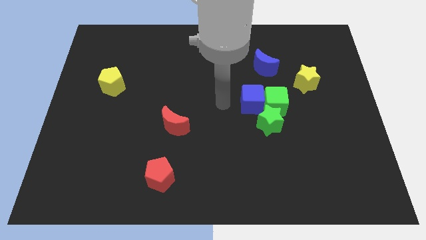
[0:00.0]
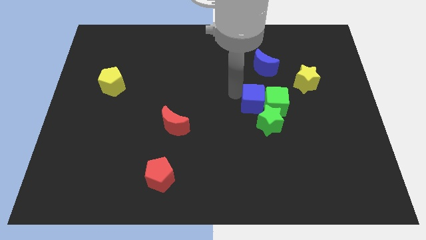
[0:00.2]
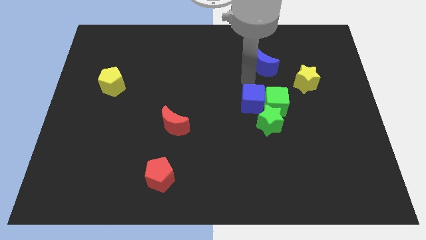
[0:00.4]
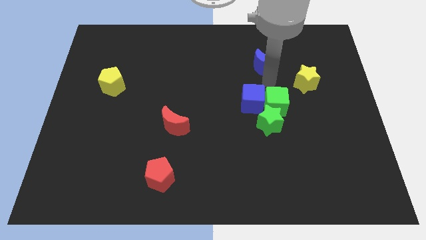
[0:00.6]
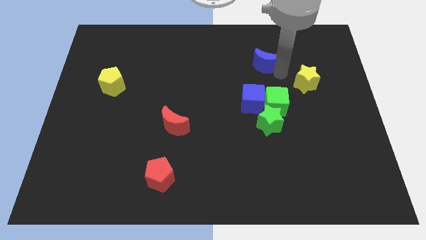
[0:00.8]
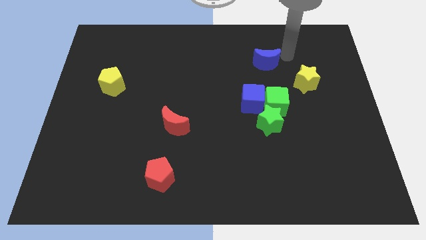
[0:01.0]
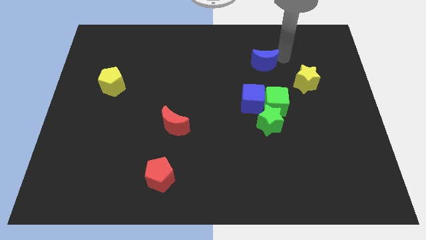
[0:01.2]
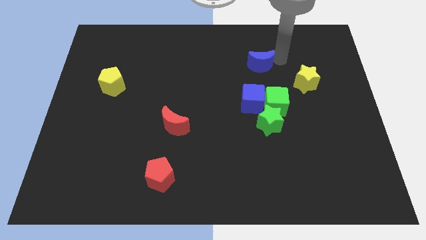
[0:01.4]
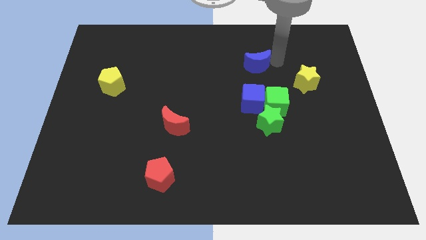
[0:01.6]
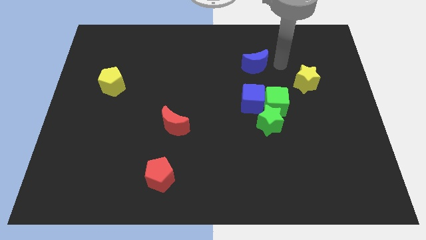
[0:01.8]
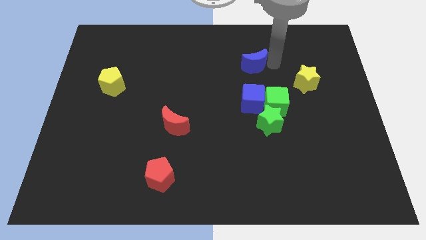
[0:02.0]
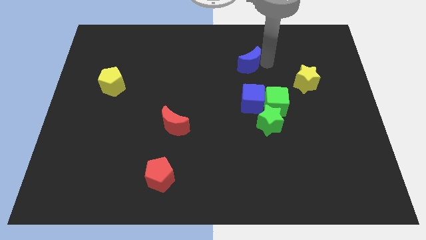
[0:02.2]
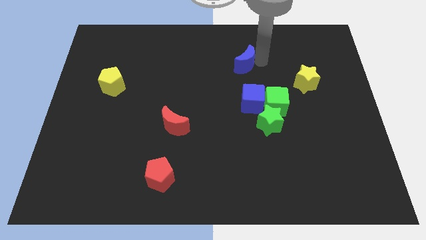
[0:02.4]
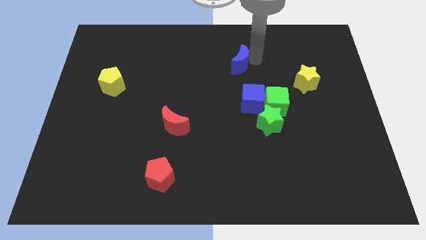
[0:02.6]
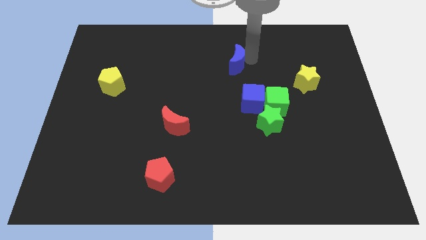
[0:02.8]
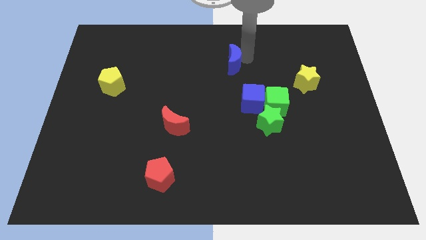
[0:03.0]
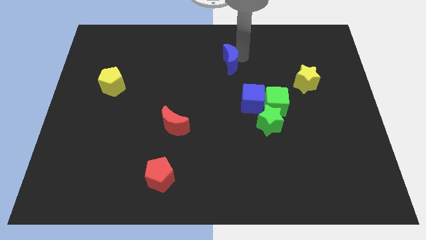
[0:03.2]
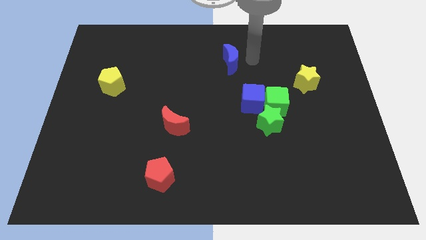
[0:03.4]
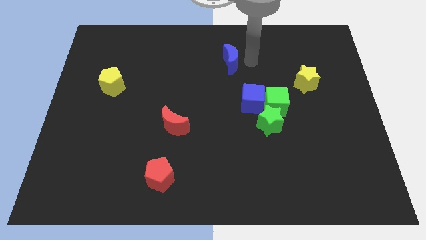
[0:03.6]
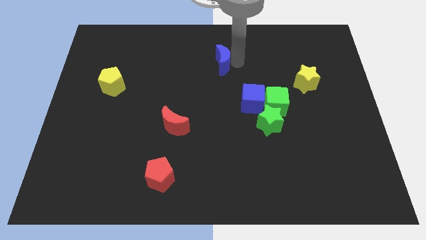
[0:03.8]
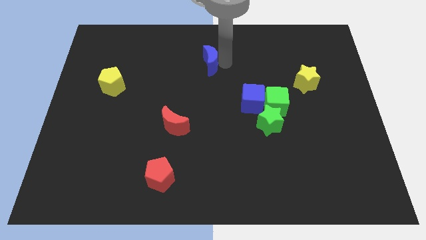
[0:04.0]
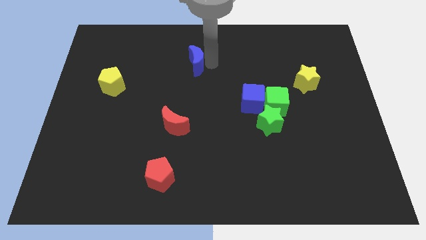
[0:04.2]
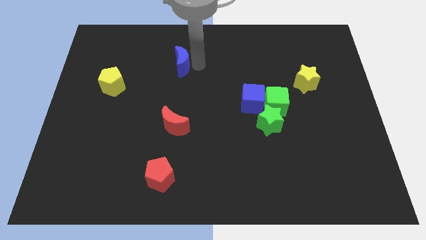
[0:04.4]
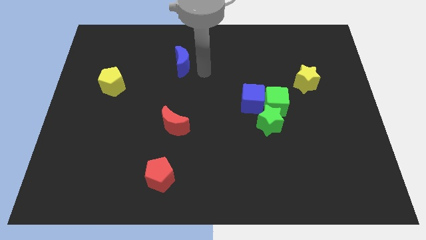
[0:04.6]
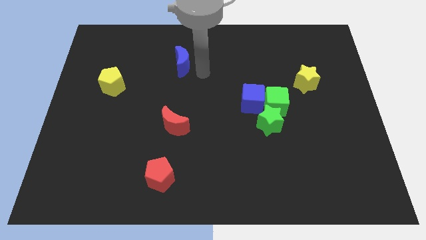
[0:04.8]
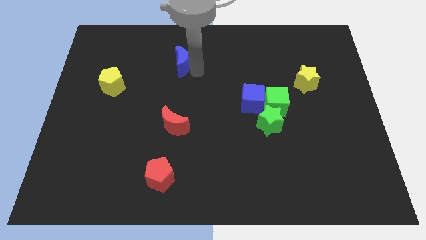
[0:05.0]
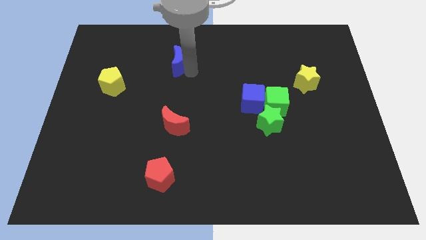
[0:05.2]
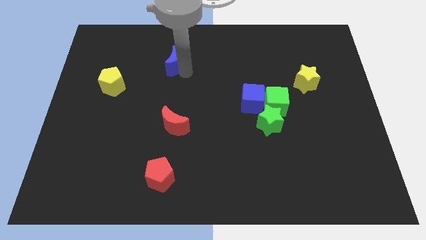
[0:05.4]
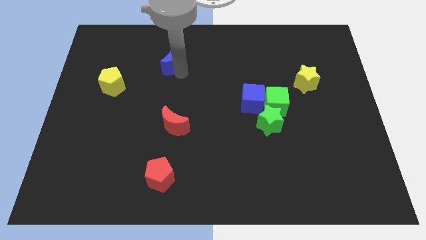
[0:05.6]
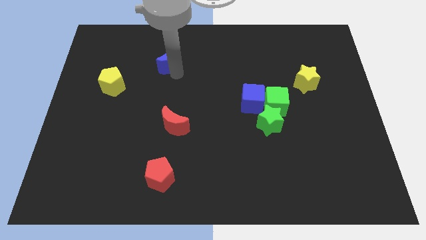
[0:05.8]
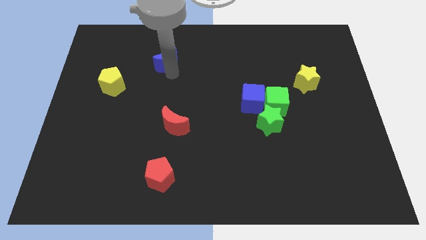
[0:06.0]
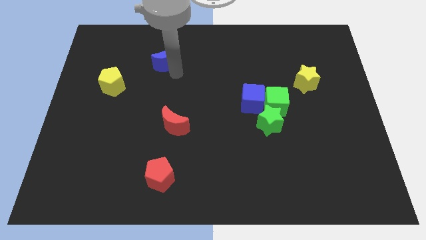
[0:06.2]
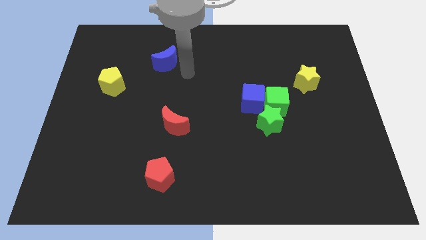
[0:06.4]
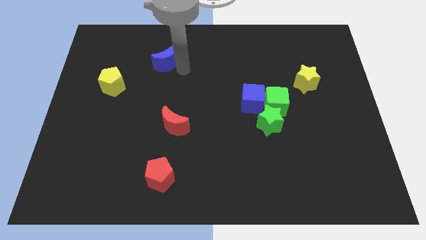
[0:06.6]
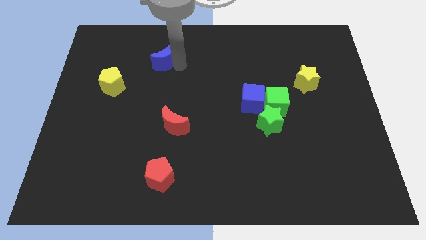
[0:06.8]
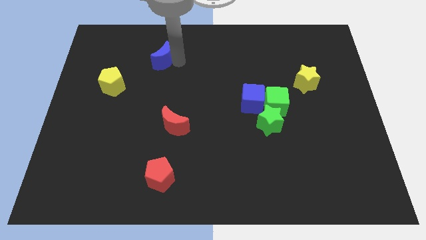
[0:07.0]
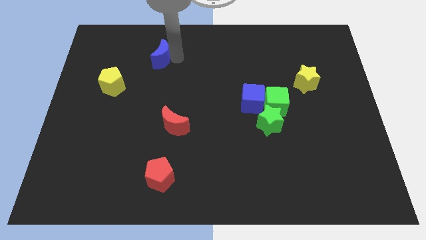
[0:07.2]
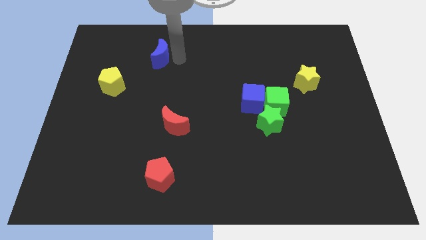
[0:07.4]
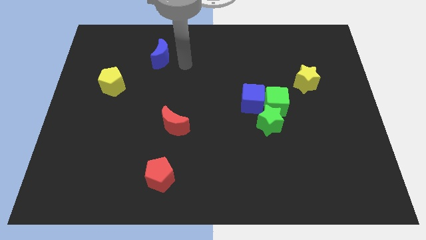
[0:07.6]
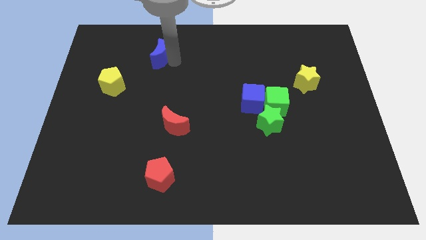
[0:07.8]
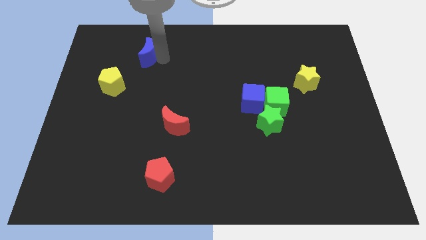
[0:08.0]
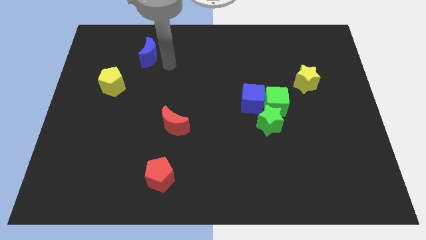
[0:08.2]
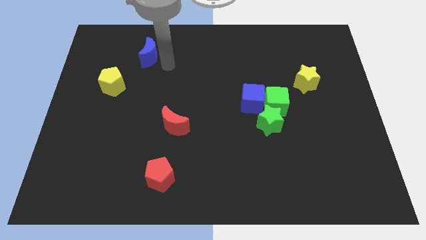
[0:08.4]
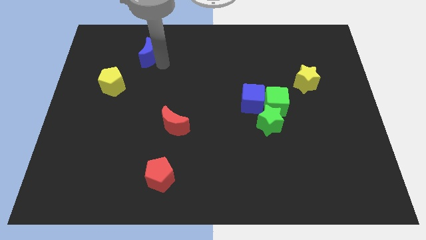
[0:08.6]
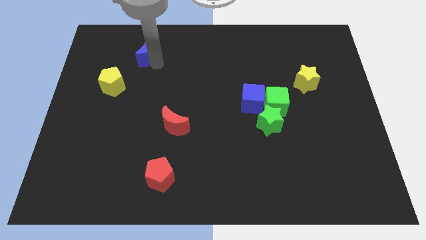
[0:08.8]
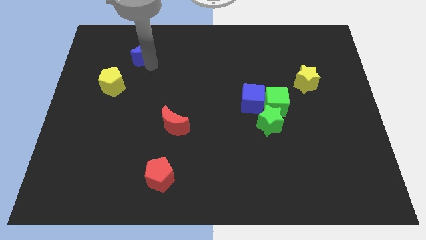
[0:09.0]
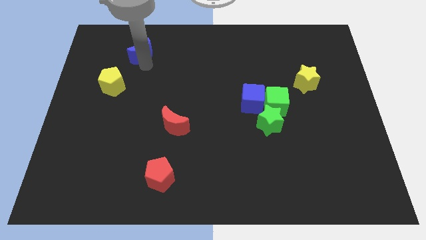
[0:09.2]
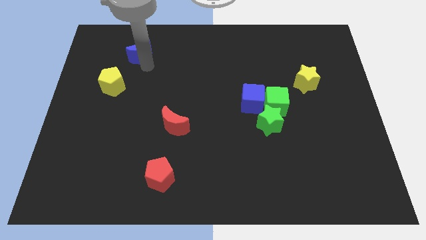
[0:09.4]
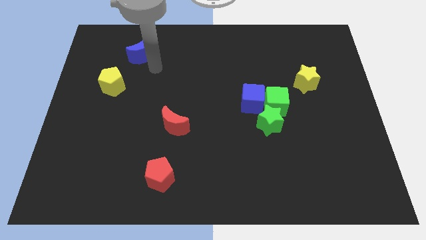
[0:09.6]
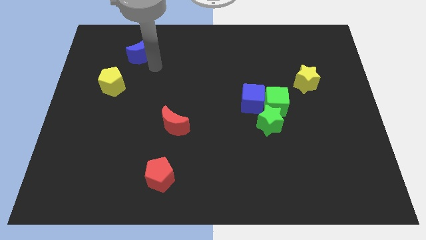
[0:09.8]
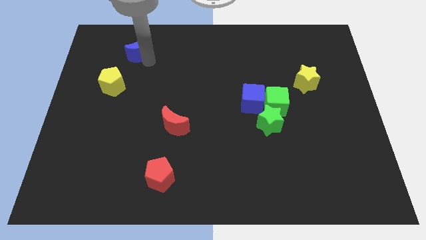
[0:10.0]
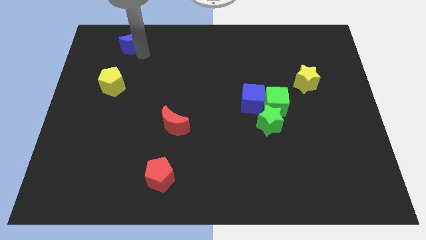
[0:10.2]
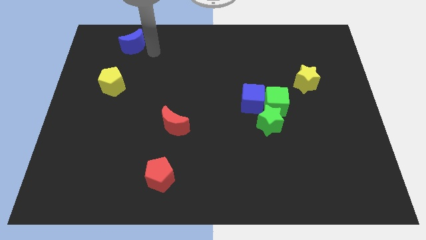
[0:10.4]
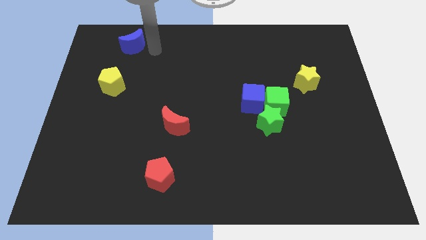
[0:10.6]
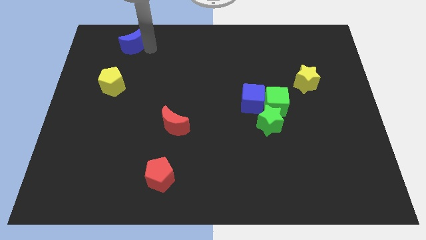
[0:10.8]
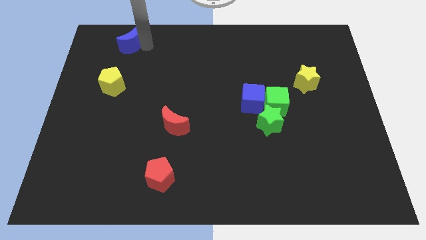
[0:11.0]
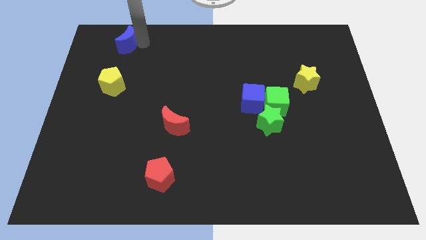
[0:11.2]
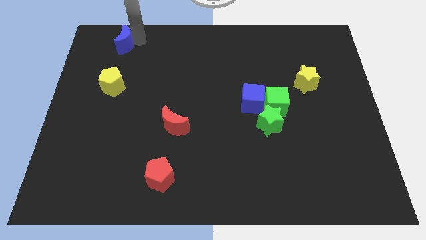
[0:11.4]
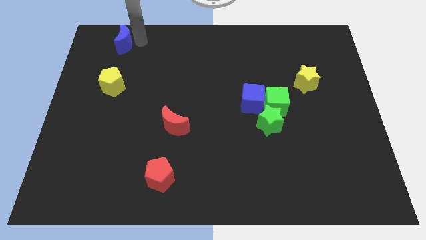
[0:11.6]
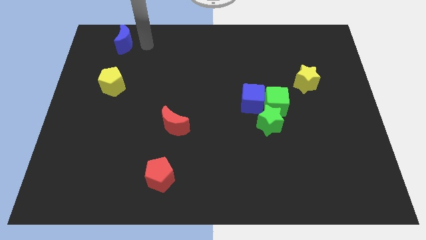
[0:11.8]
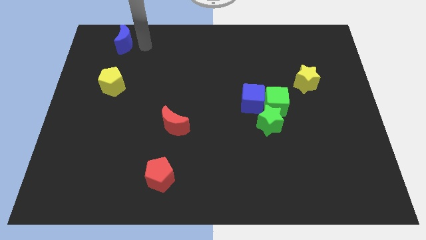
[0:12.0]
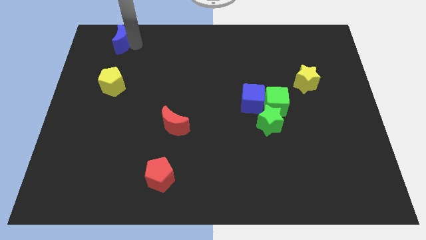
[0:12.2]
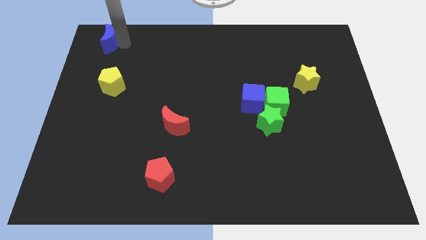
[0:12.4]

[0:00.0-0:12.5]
put the blue moon to the top left of the board
